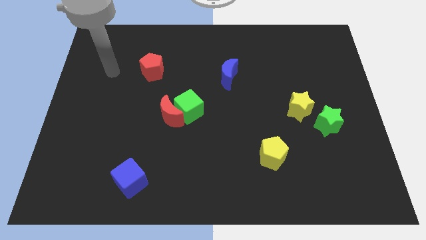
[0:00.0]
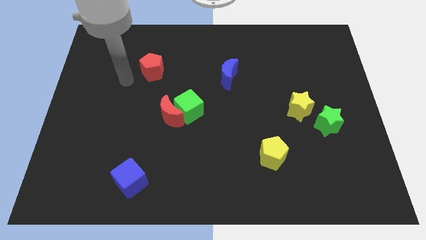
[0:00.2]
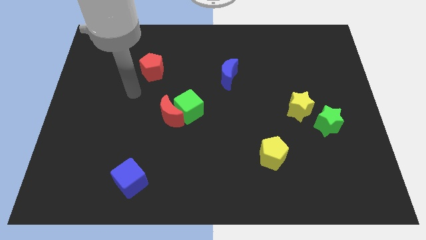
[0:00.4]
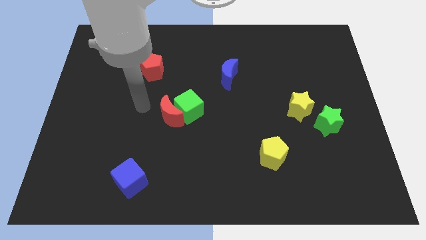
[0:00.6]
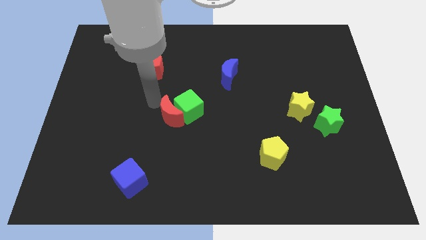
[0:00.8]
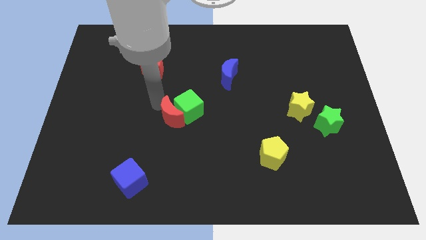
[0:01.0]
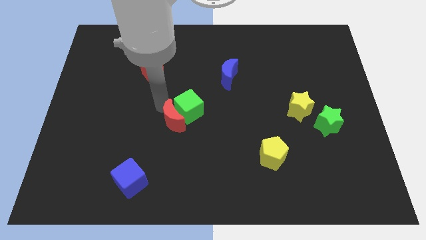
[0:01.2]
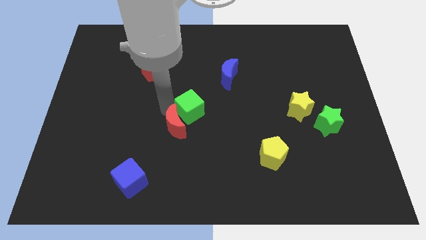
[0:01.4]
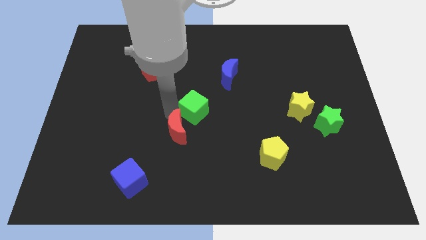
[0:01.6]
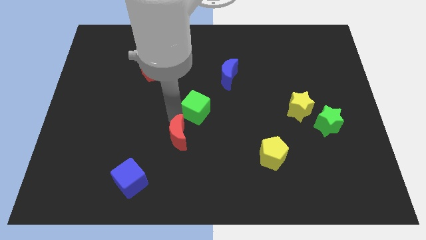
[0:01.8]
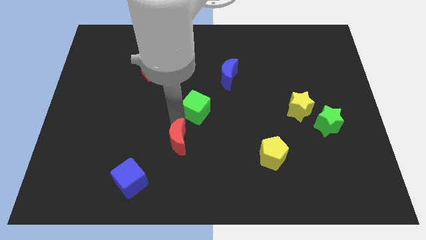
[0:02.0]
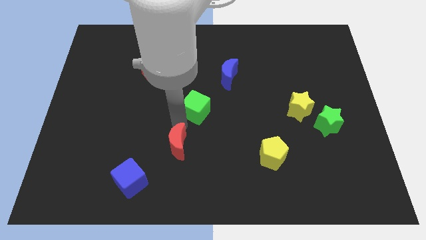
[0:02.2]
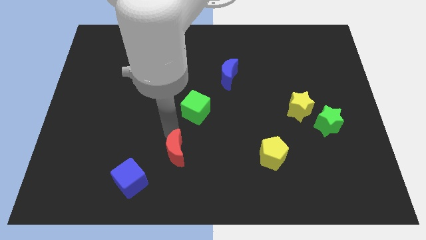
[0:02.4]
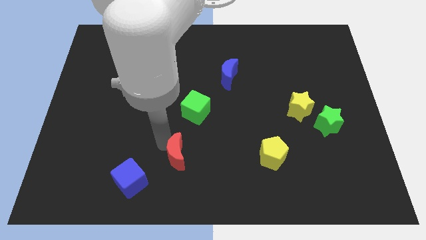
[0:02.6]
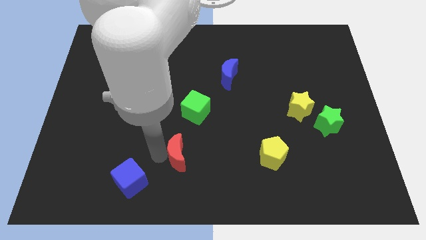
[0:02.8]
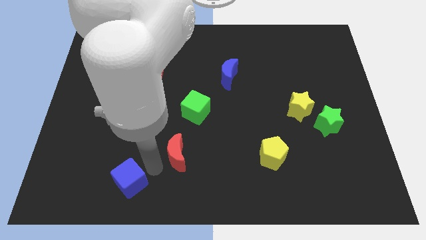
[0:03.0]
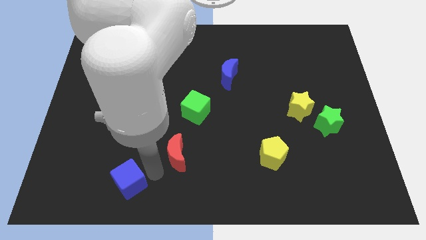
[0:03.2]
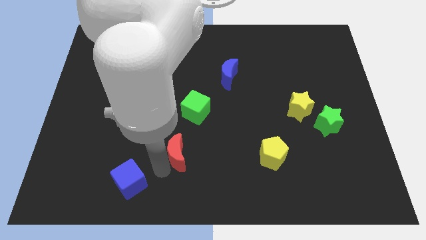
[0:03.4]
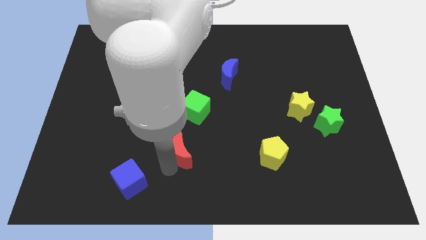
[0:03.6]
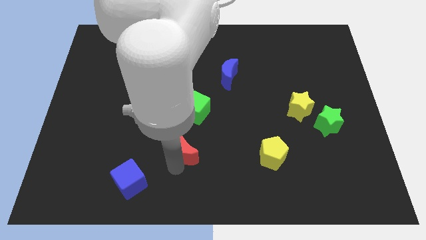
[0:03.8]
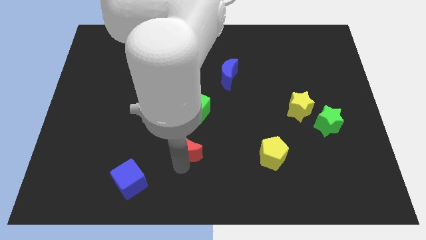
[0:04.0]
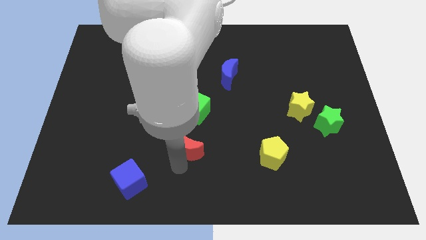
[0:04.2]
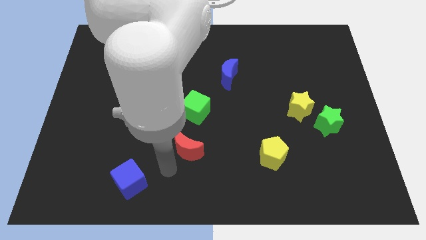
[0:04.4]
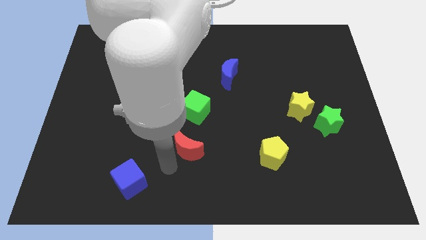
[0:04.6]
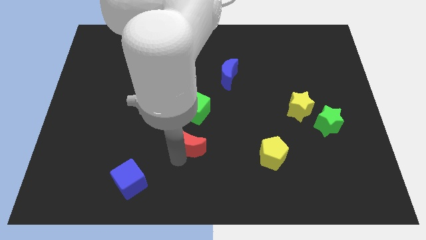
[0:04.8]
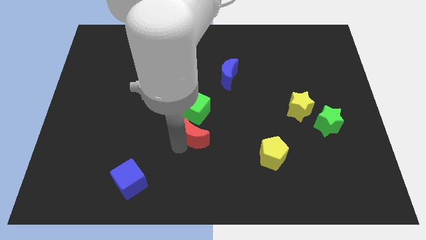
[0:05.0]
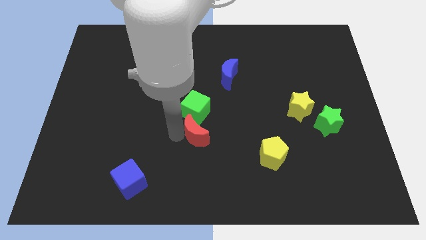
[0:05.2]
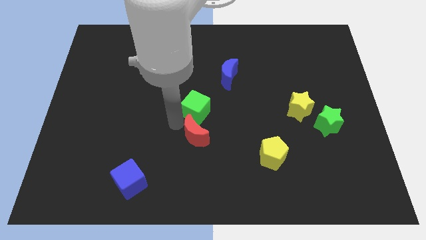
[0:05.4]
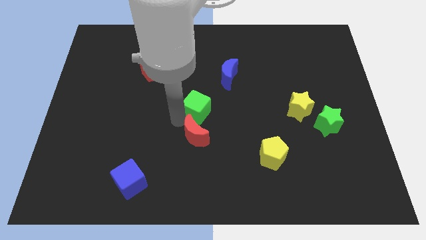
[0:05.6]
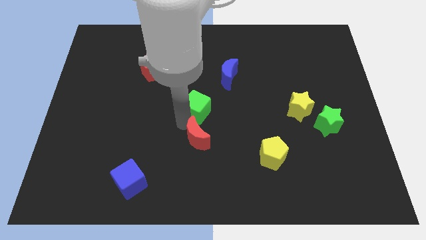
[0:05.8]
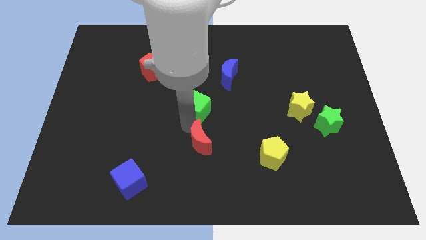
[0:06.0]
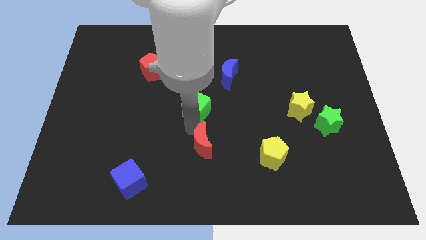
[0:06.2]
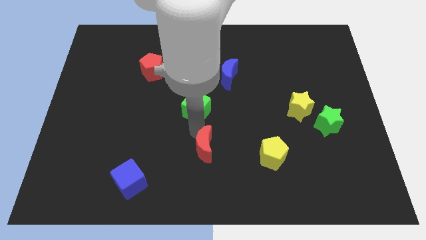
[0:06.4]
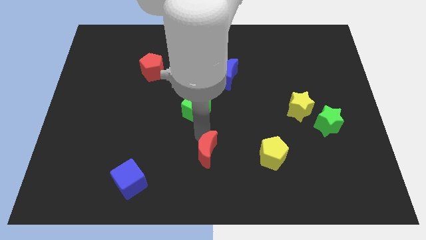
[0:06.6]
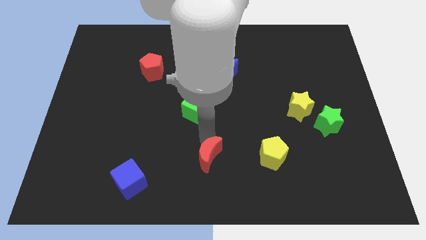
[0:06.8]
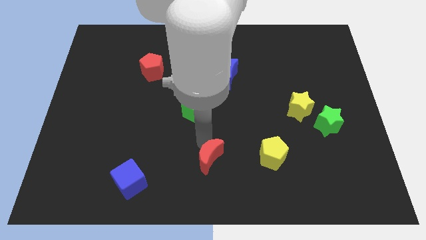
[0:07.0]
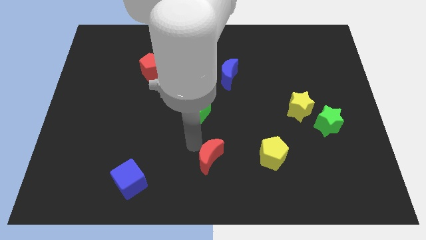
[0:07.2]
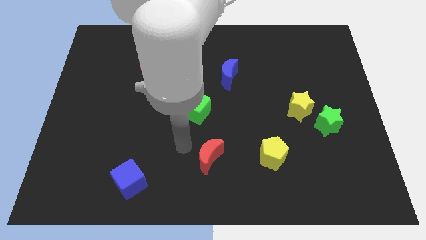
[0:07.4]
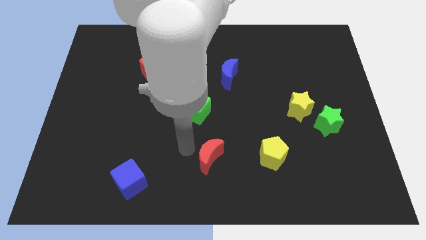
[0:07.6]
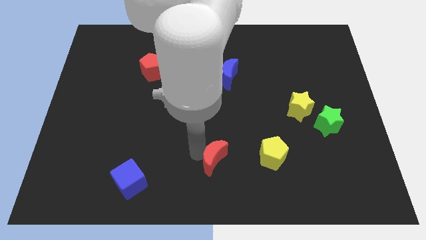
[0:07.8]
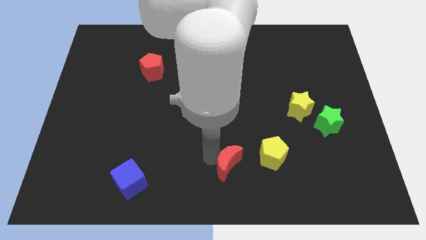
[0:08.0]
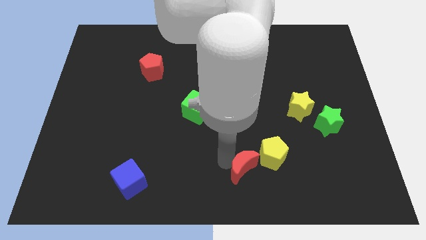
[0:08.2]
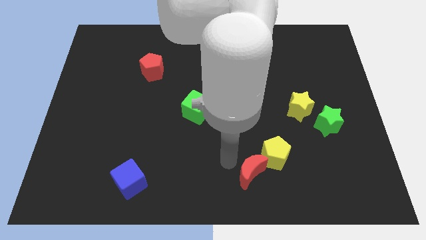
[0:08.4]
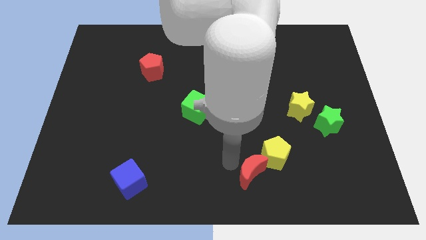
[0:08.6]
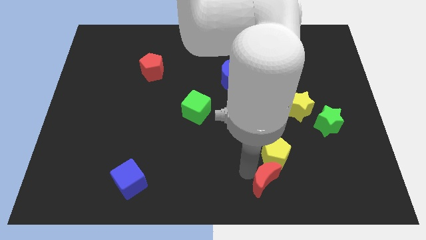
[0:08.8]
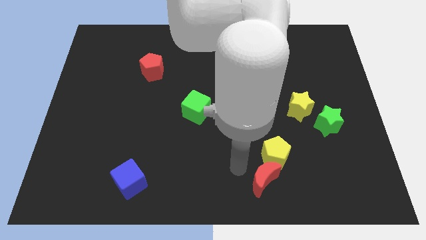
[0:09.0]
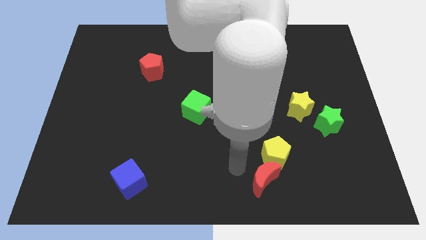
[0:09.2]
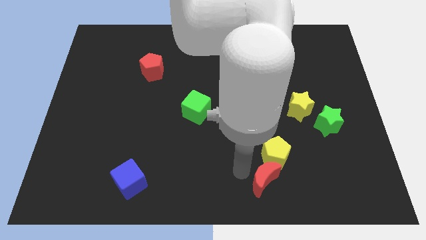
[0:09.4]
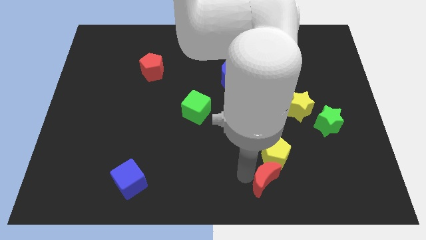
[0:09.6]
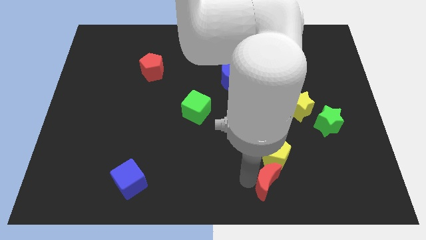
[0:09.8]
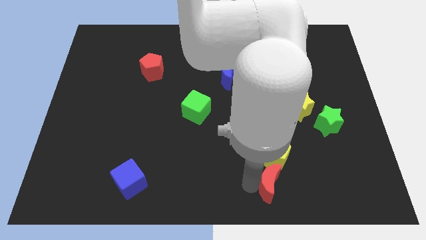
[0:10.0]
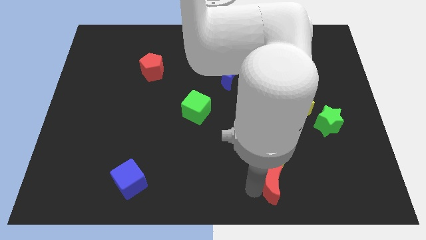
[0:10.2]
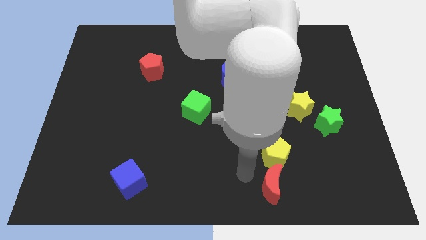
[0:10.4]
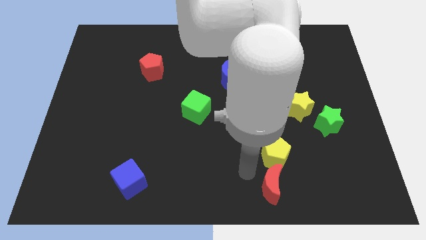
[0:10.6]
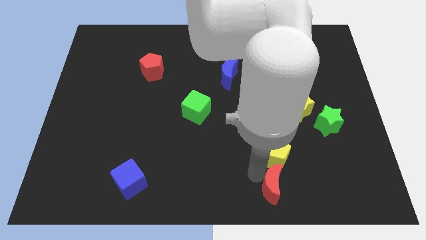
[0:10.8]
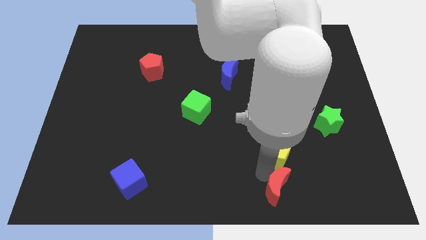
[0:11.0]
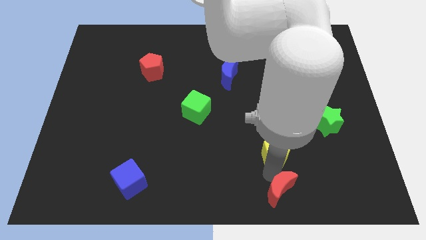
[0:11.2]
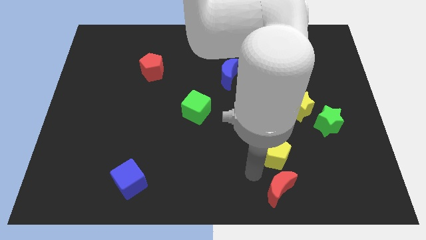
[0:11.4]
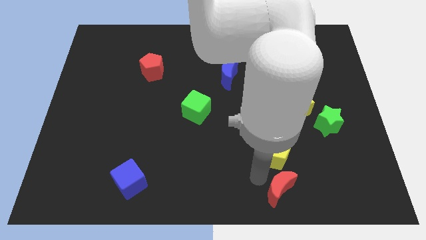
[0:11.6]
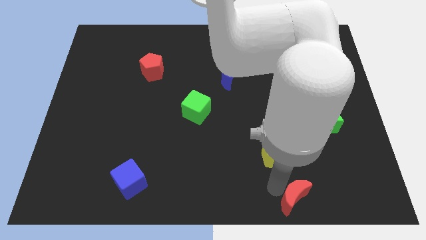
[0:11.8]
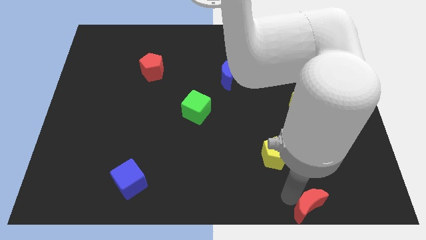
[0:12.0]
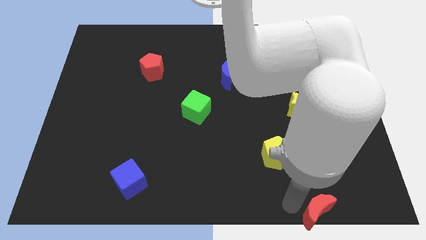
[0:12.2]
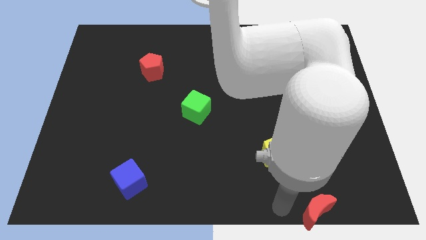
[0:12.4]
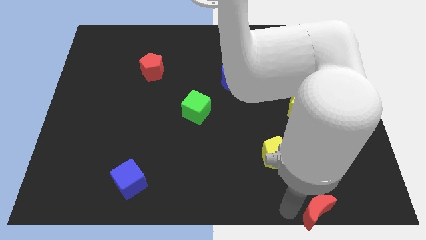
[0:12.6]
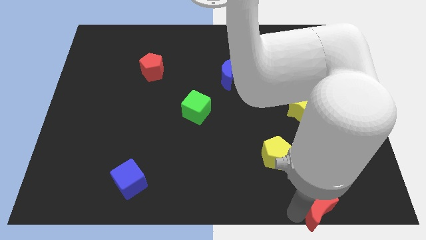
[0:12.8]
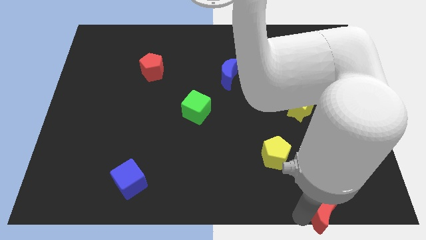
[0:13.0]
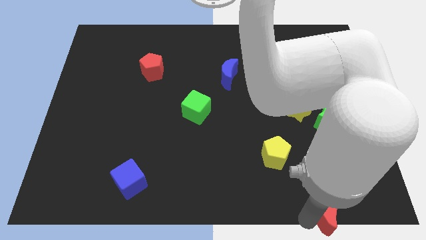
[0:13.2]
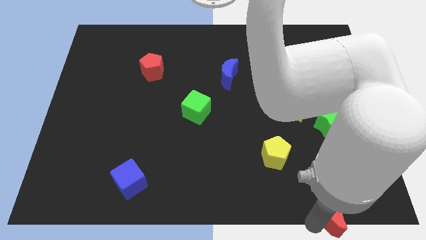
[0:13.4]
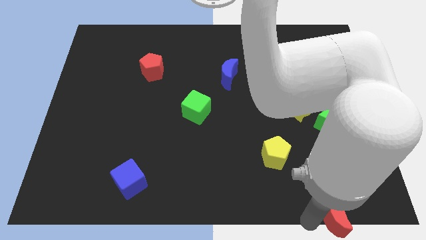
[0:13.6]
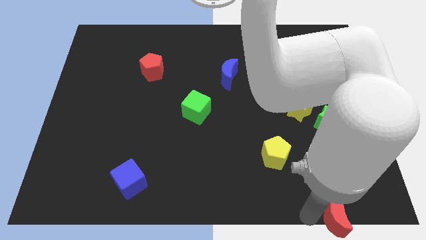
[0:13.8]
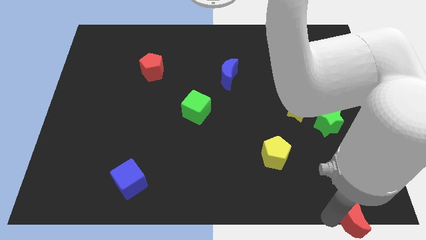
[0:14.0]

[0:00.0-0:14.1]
put the red moon to the bottom right
